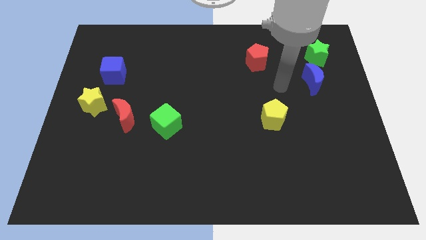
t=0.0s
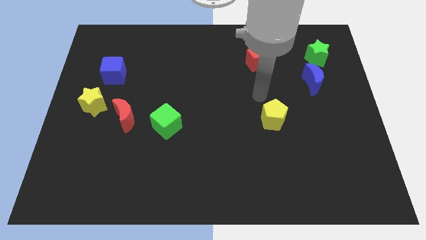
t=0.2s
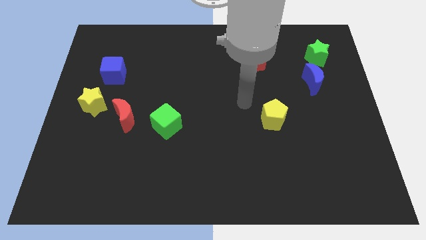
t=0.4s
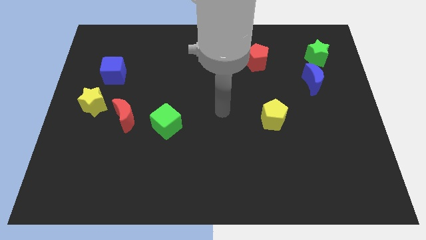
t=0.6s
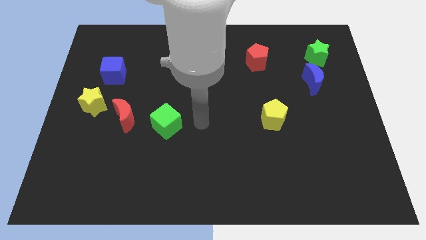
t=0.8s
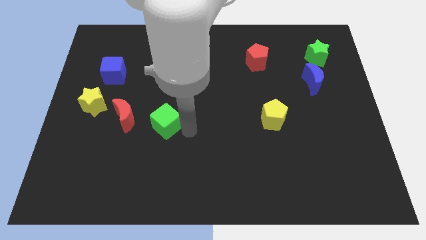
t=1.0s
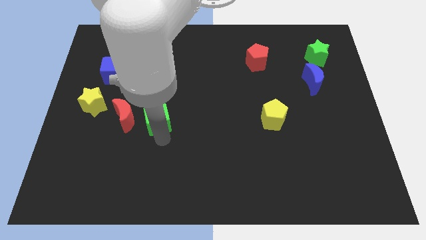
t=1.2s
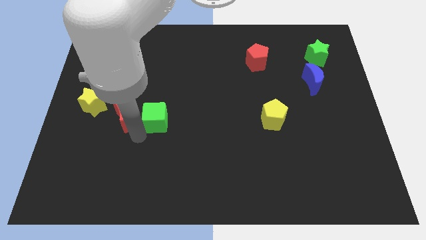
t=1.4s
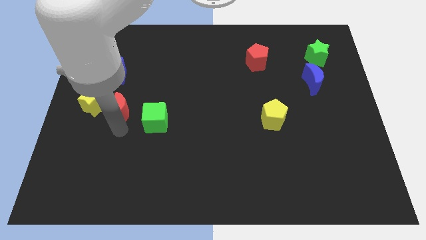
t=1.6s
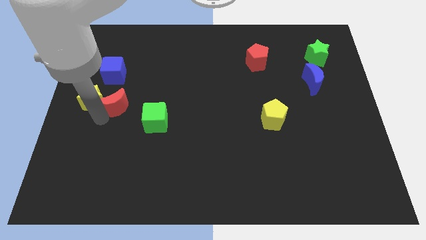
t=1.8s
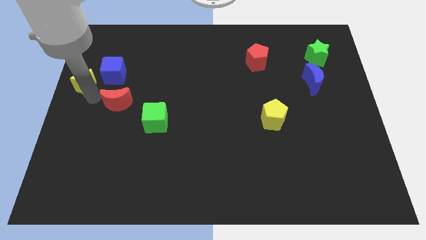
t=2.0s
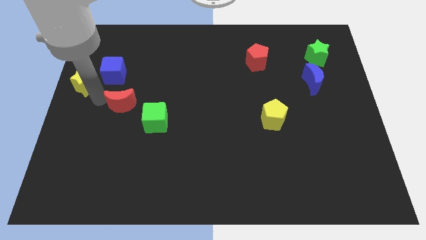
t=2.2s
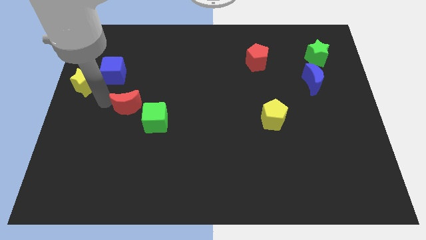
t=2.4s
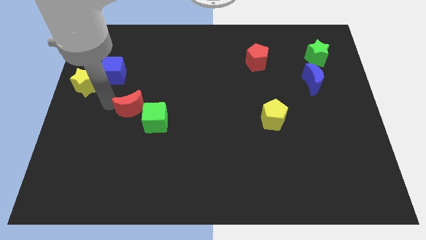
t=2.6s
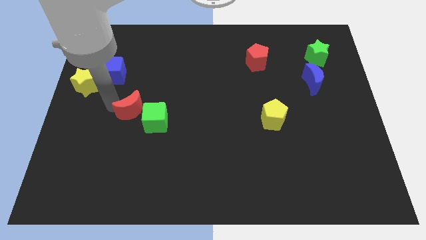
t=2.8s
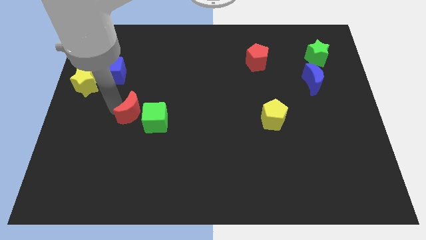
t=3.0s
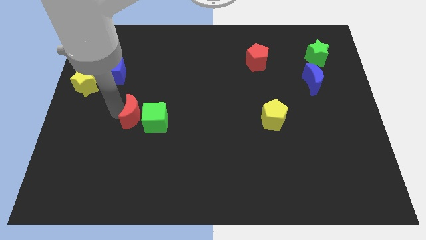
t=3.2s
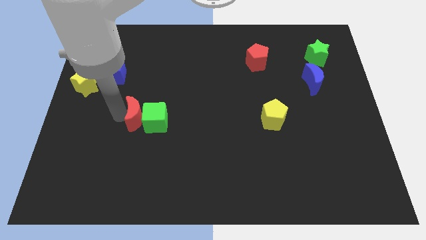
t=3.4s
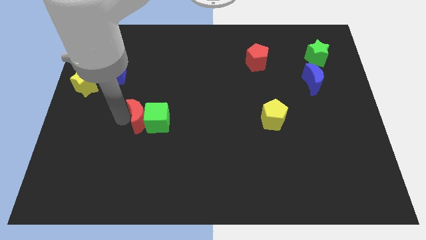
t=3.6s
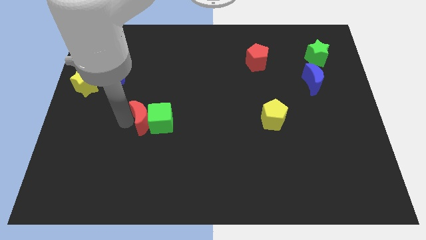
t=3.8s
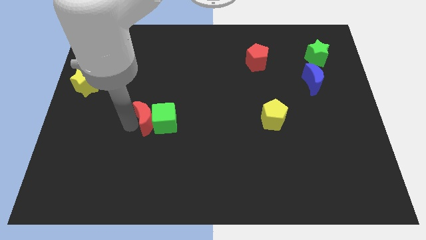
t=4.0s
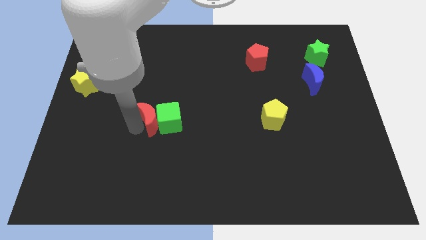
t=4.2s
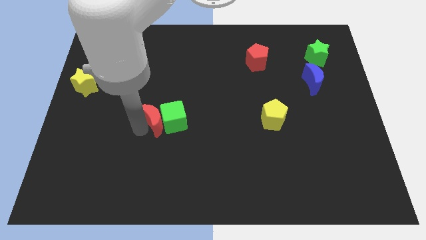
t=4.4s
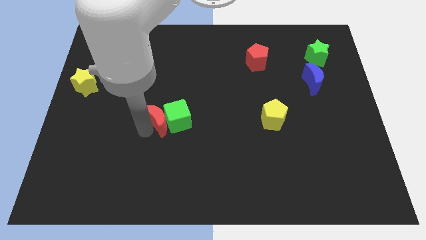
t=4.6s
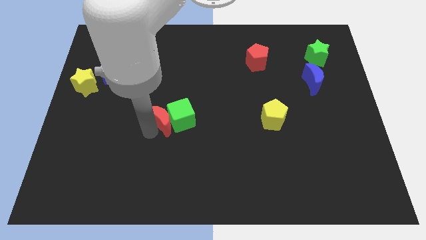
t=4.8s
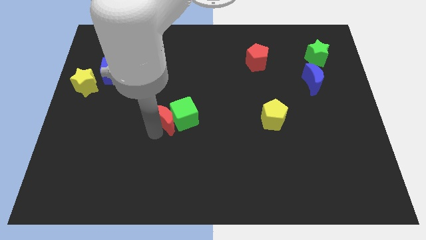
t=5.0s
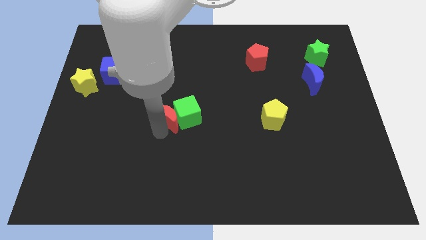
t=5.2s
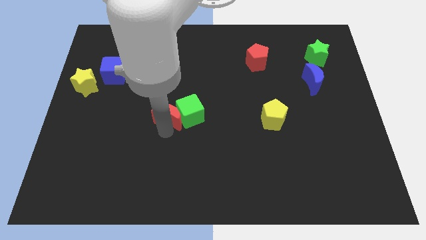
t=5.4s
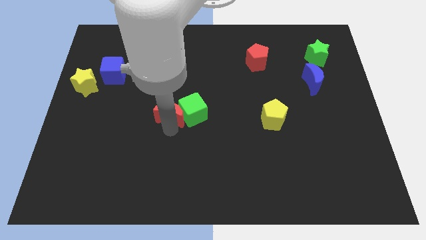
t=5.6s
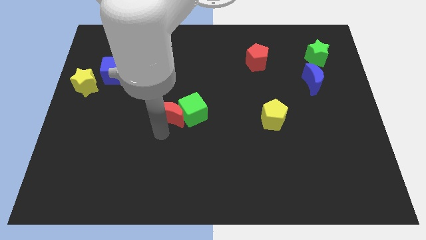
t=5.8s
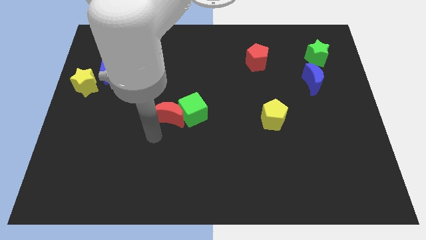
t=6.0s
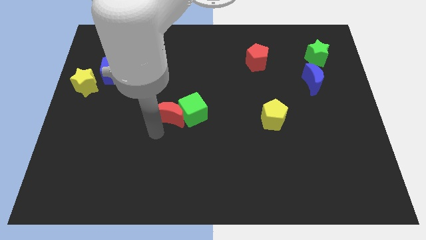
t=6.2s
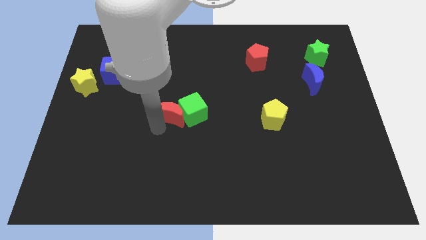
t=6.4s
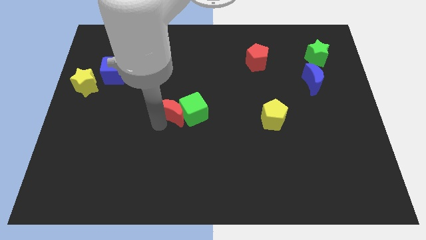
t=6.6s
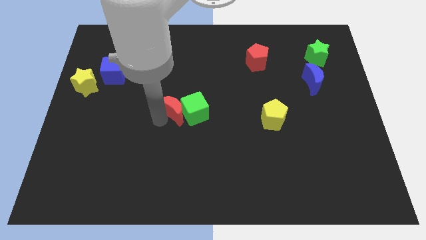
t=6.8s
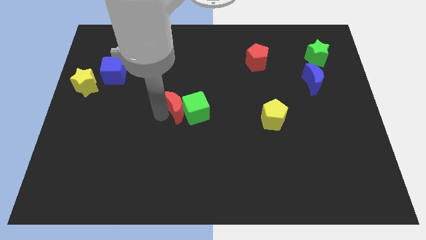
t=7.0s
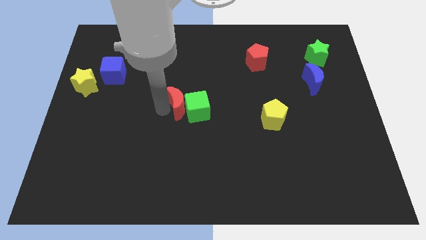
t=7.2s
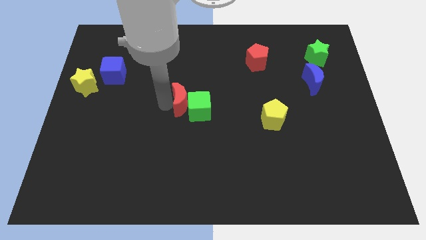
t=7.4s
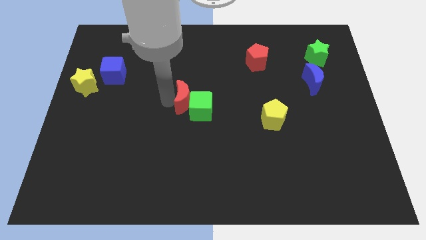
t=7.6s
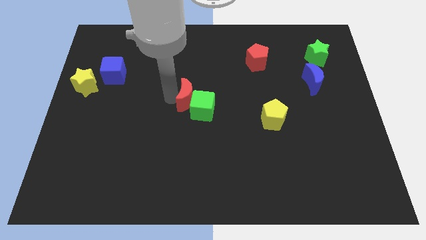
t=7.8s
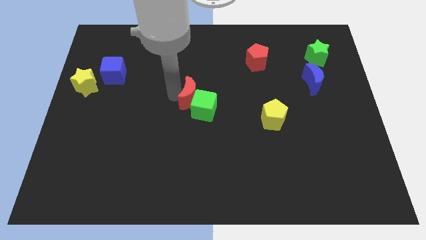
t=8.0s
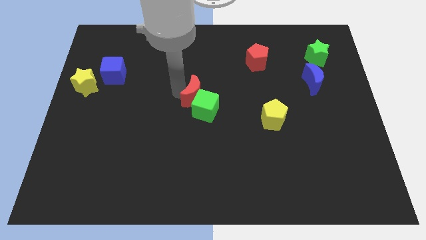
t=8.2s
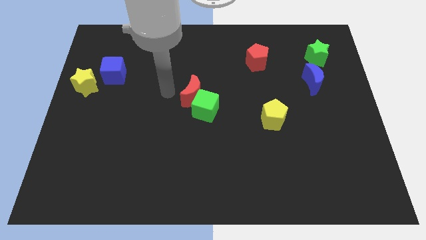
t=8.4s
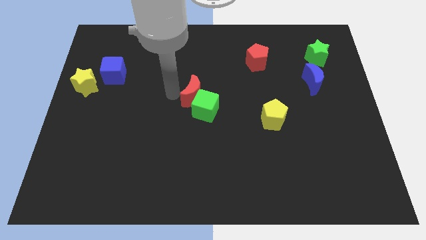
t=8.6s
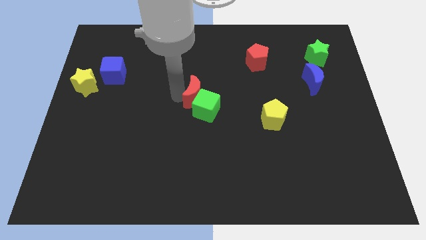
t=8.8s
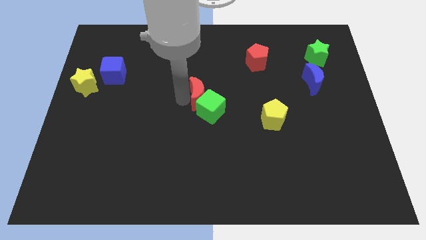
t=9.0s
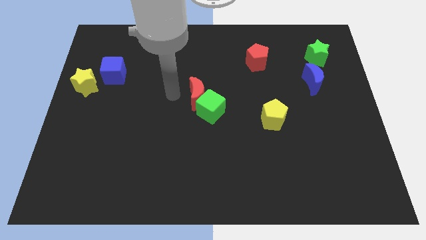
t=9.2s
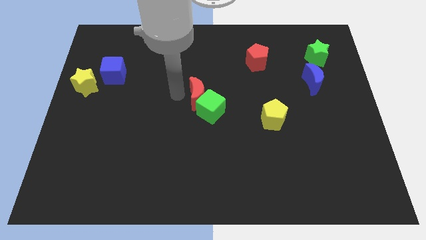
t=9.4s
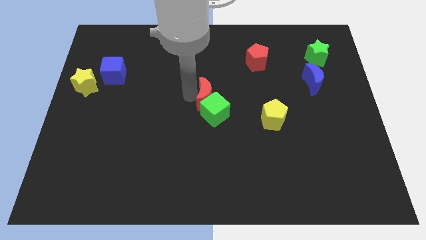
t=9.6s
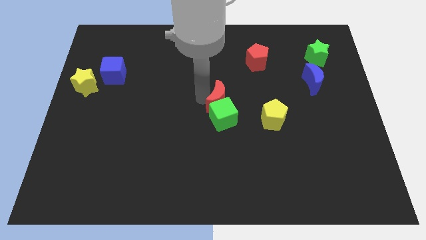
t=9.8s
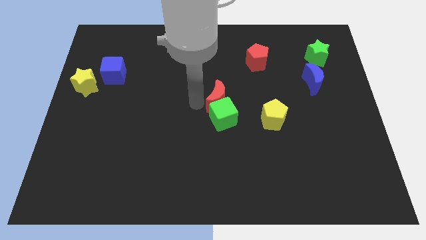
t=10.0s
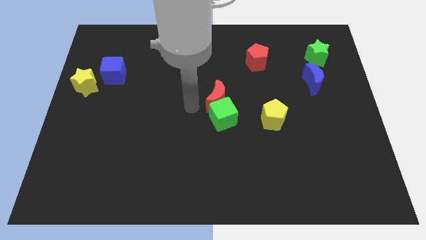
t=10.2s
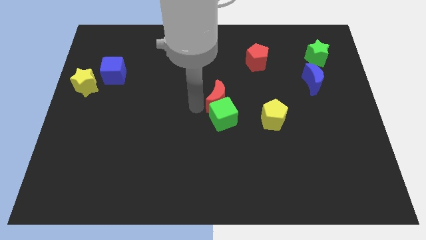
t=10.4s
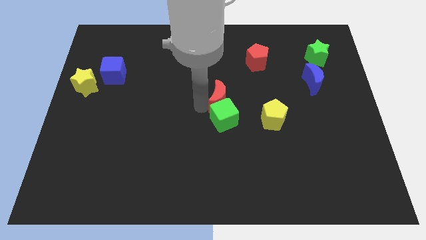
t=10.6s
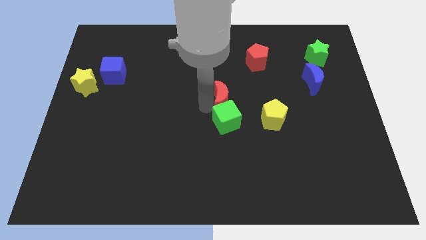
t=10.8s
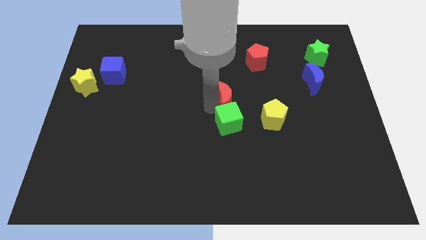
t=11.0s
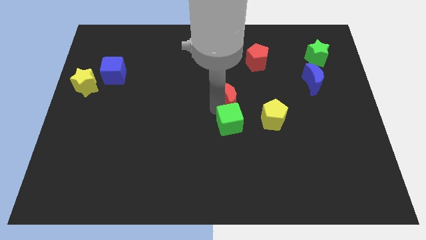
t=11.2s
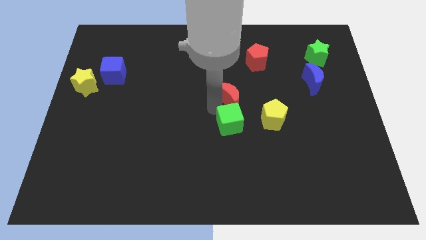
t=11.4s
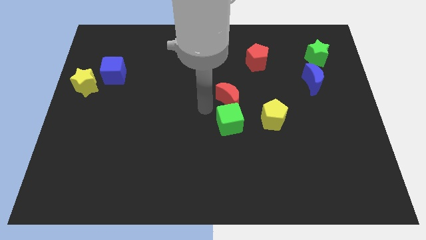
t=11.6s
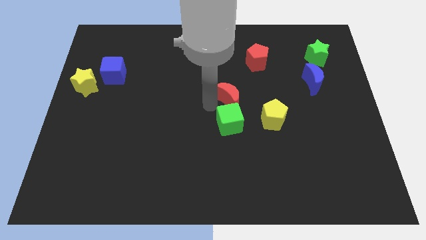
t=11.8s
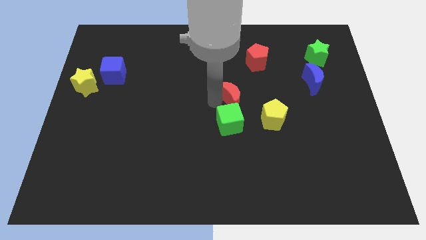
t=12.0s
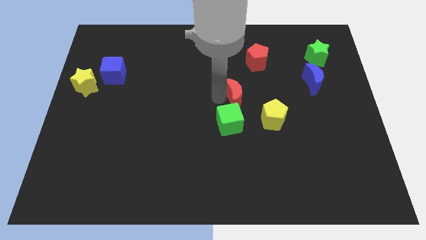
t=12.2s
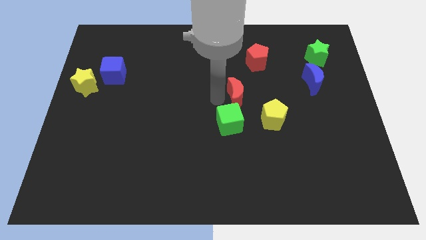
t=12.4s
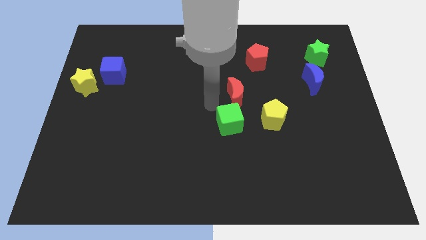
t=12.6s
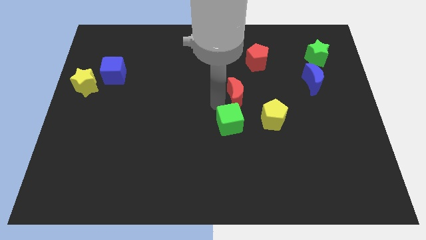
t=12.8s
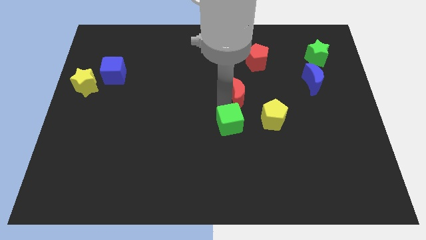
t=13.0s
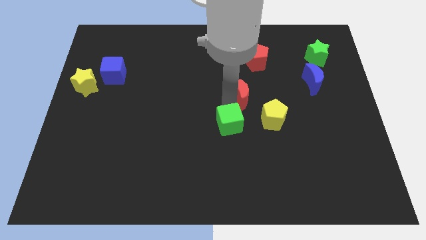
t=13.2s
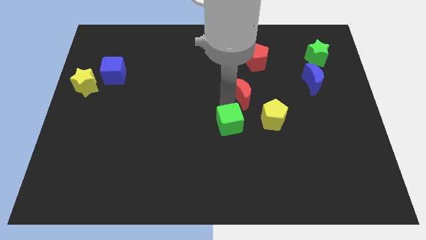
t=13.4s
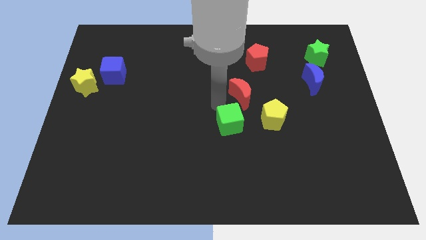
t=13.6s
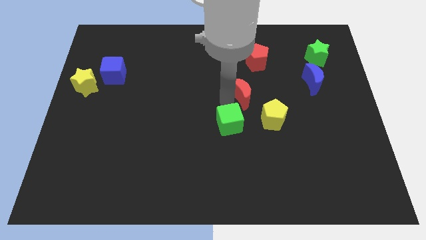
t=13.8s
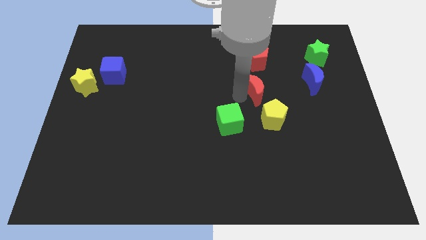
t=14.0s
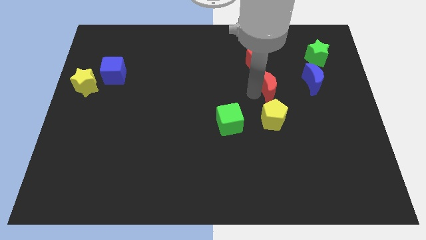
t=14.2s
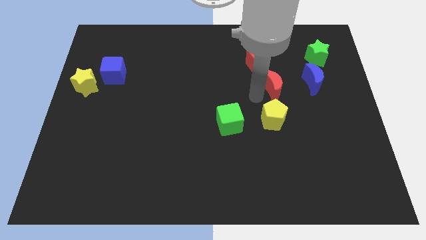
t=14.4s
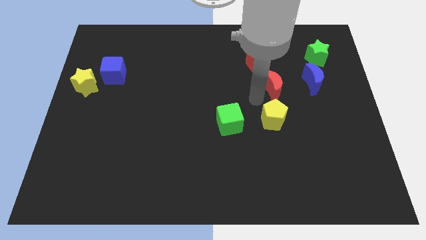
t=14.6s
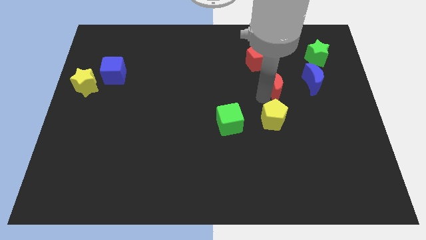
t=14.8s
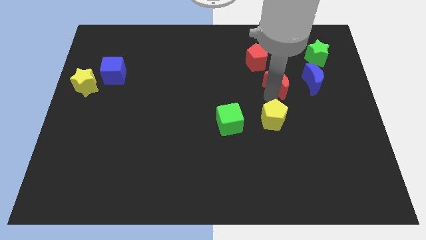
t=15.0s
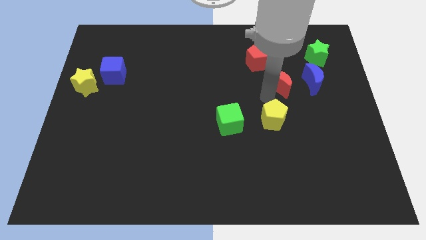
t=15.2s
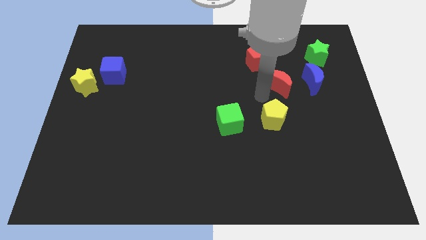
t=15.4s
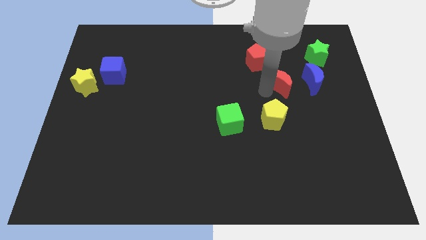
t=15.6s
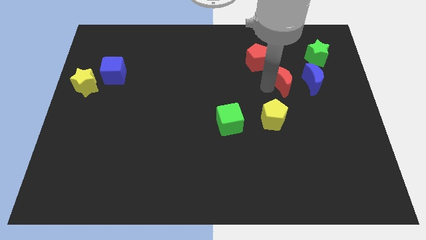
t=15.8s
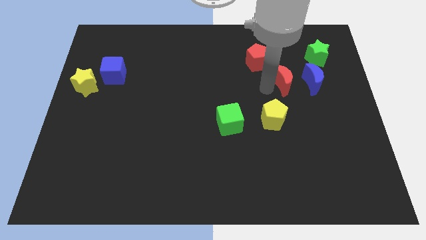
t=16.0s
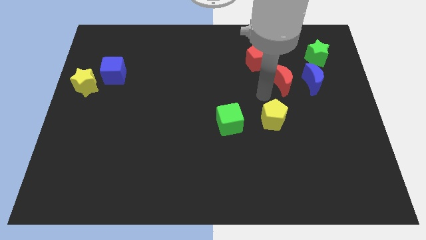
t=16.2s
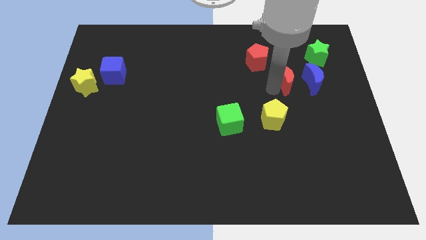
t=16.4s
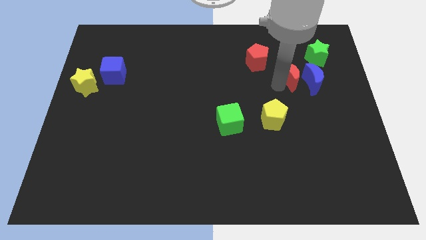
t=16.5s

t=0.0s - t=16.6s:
put the red moon to the bottom left of the green star
